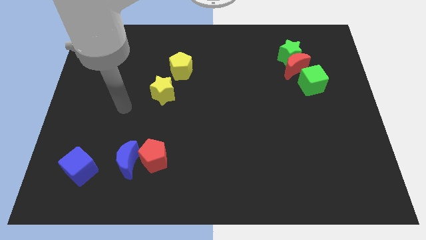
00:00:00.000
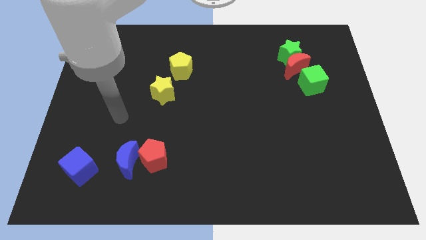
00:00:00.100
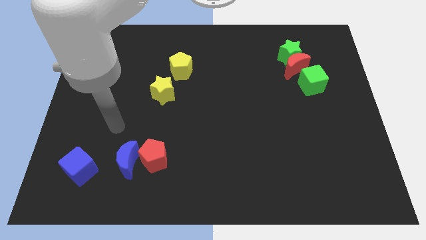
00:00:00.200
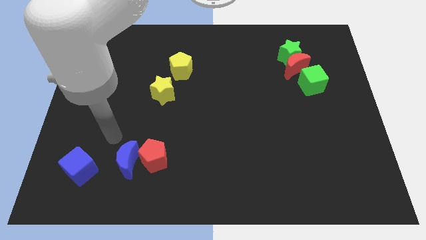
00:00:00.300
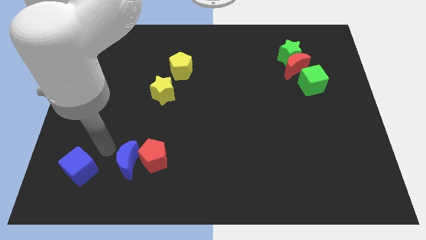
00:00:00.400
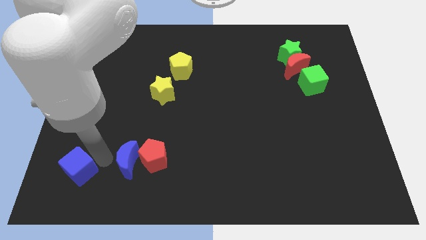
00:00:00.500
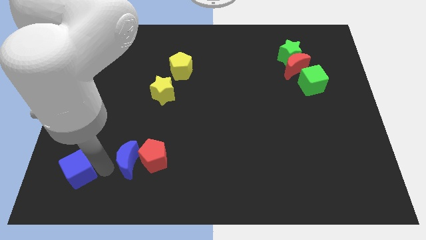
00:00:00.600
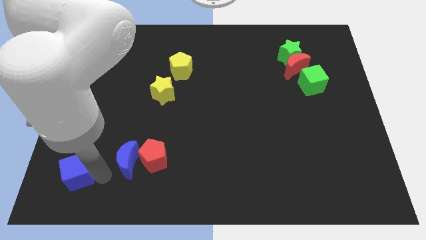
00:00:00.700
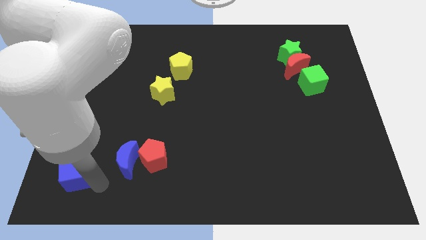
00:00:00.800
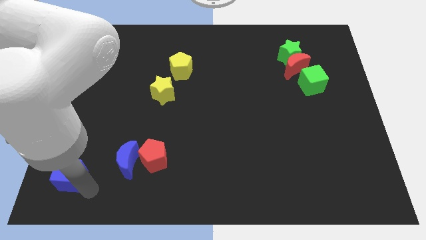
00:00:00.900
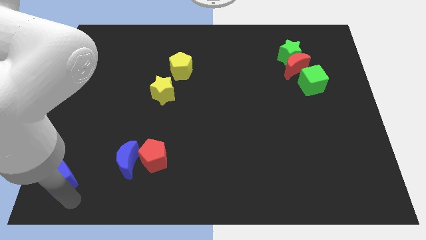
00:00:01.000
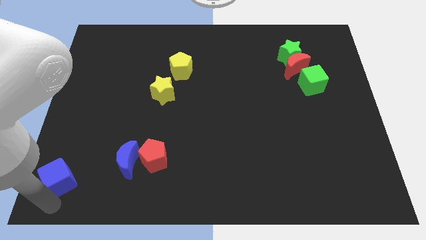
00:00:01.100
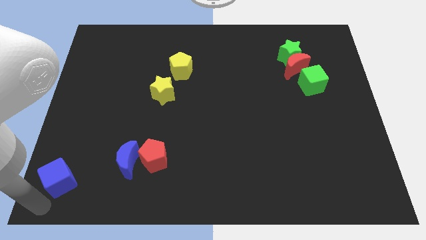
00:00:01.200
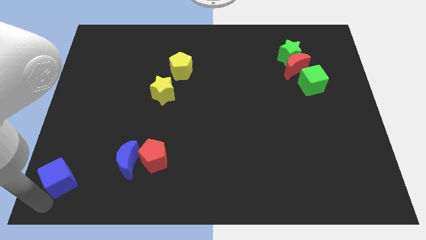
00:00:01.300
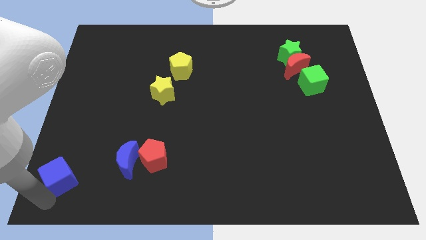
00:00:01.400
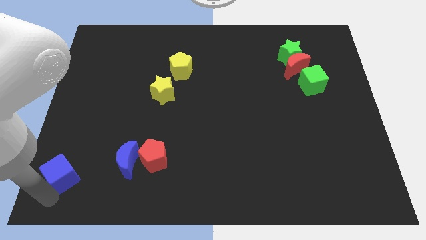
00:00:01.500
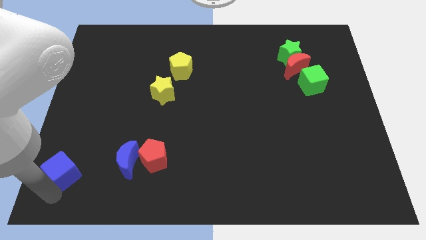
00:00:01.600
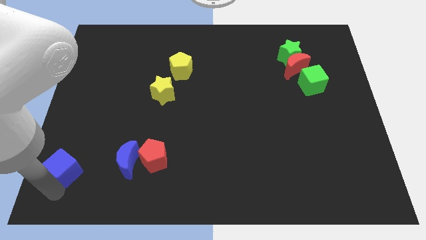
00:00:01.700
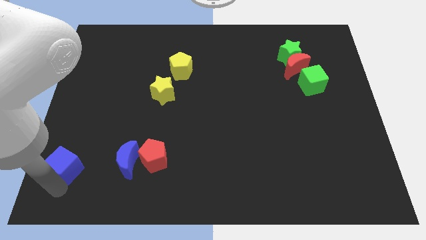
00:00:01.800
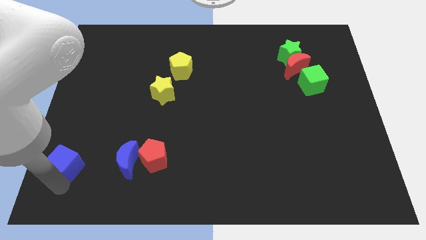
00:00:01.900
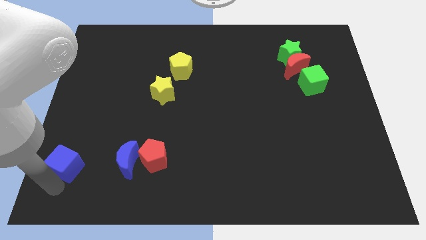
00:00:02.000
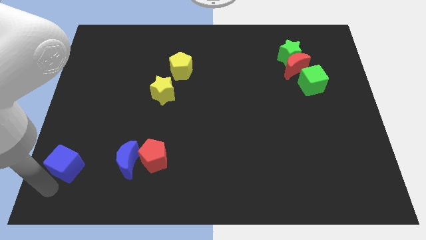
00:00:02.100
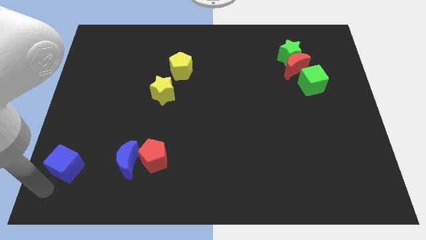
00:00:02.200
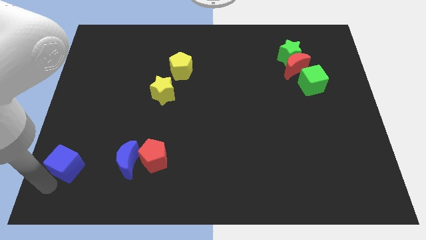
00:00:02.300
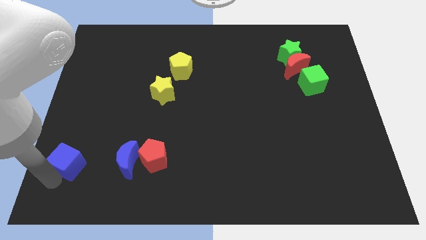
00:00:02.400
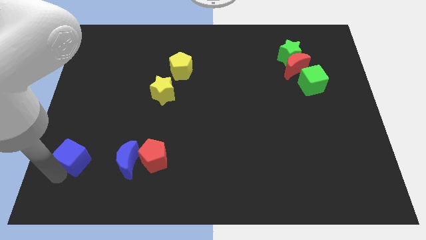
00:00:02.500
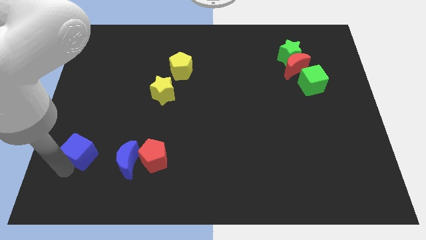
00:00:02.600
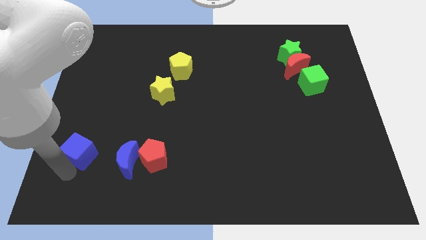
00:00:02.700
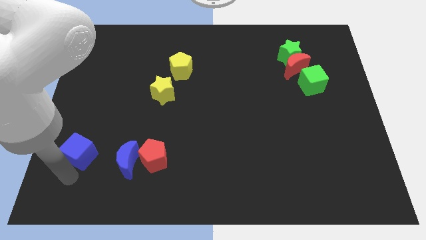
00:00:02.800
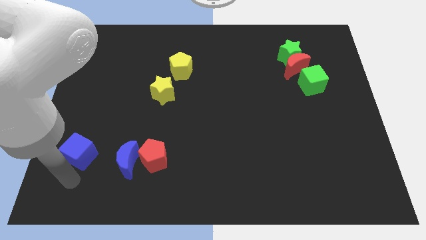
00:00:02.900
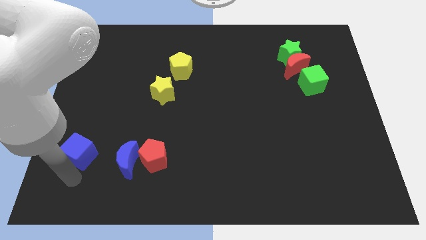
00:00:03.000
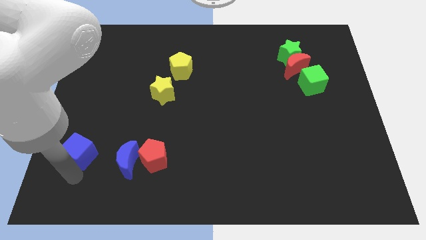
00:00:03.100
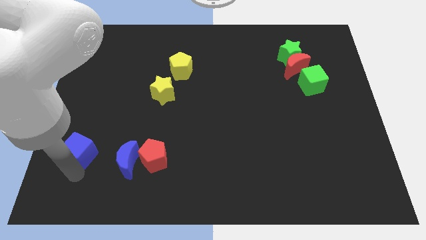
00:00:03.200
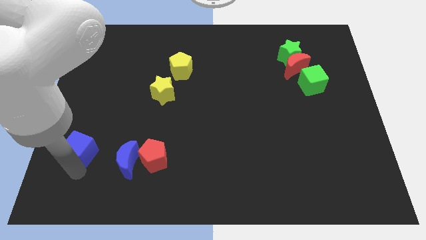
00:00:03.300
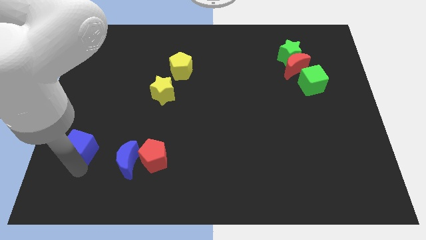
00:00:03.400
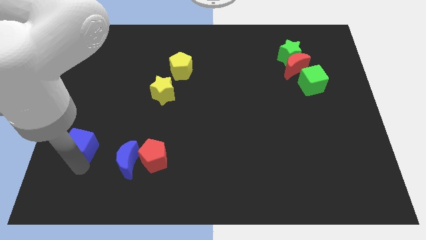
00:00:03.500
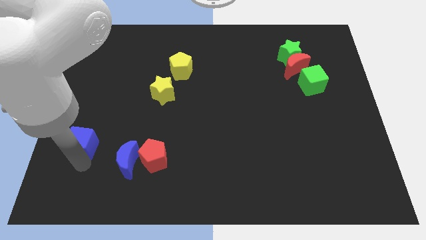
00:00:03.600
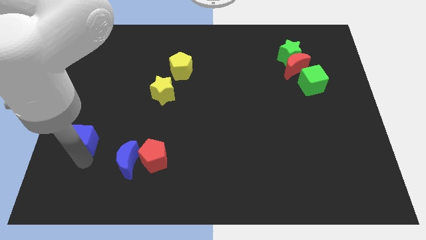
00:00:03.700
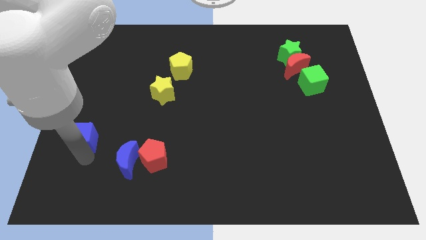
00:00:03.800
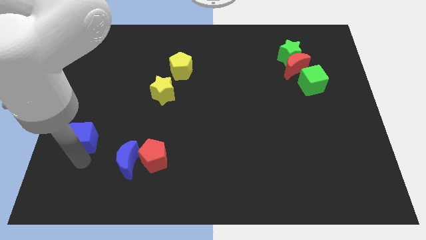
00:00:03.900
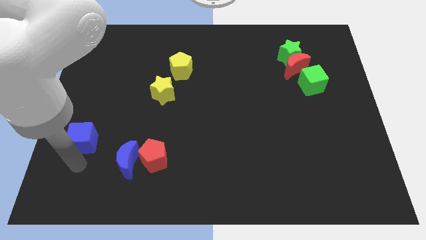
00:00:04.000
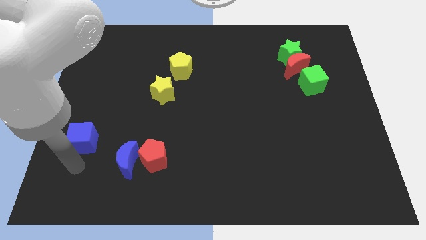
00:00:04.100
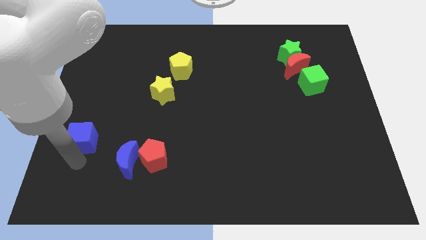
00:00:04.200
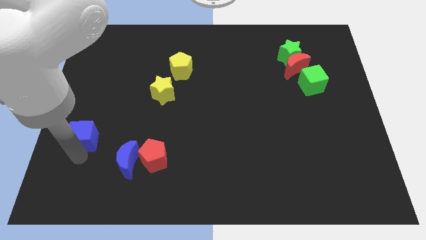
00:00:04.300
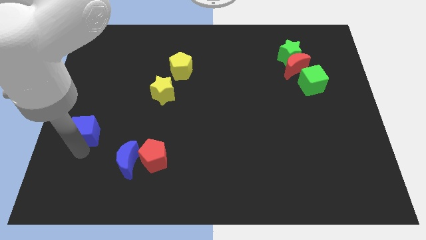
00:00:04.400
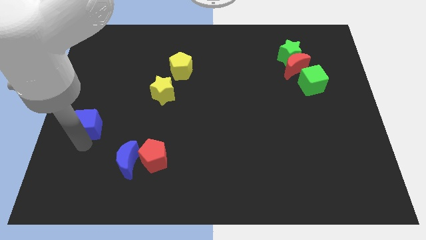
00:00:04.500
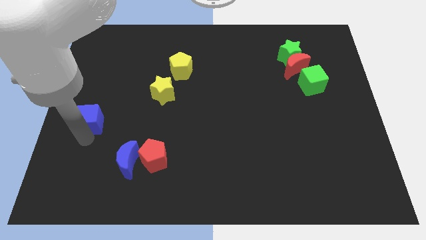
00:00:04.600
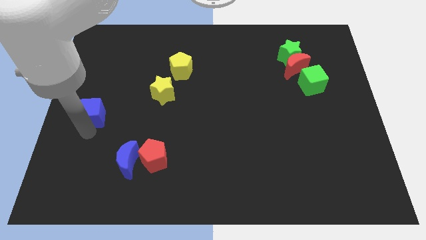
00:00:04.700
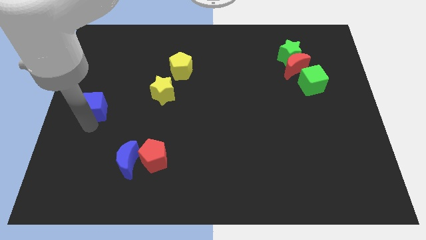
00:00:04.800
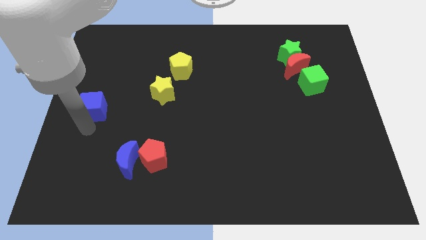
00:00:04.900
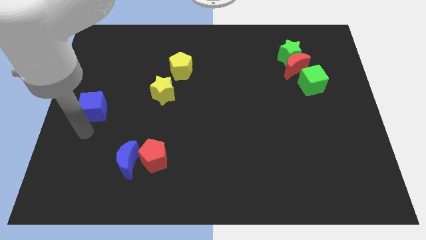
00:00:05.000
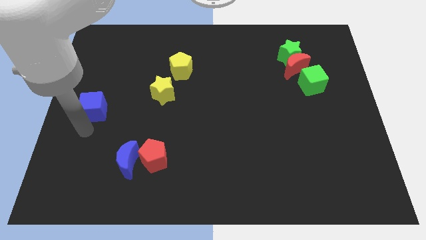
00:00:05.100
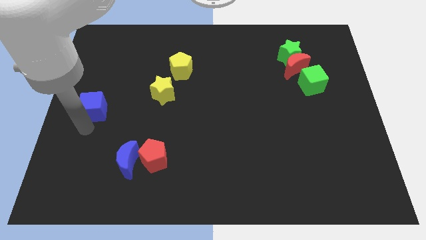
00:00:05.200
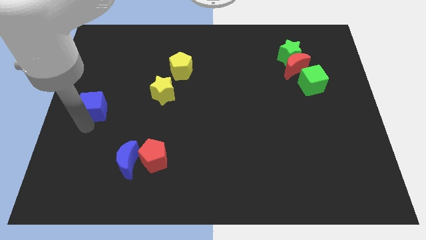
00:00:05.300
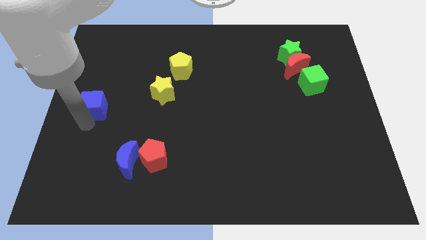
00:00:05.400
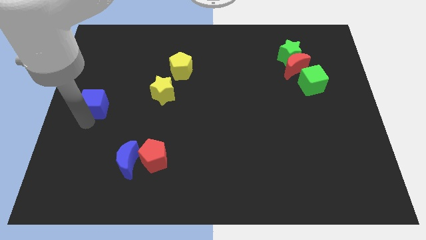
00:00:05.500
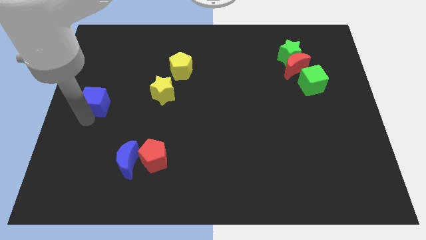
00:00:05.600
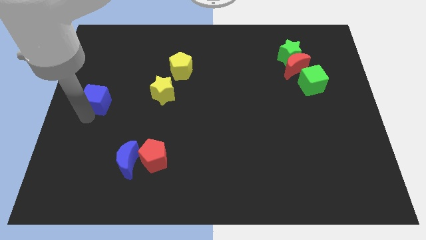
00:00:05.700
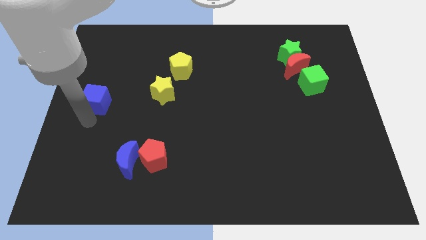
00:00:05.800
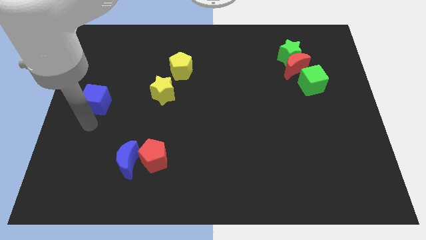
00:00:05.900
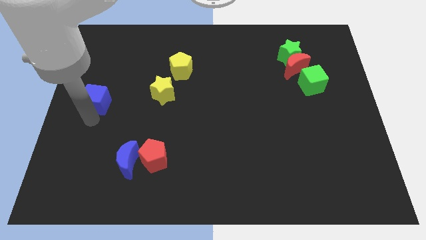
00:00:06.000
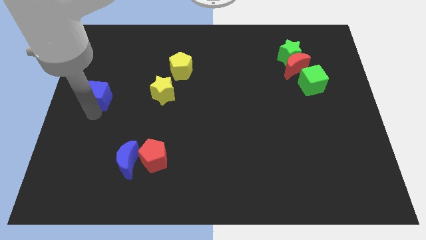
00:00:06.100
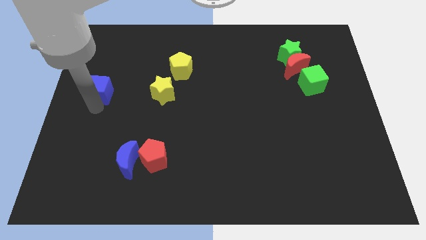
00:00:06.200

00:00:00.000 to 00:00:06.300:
move the blue cube up

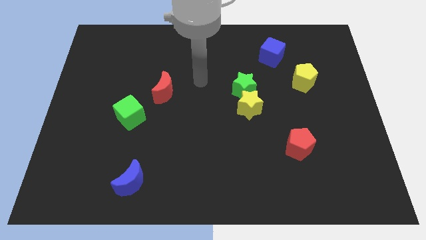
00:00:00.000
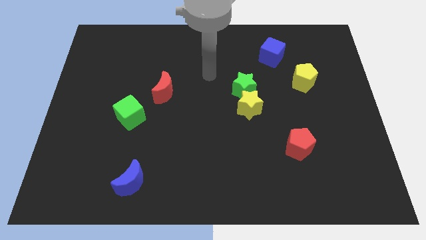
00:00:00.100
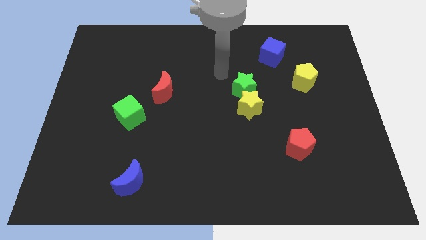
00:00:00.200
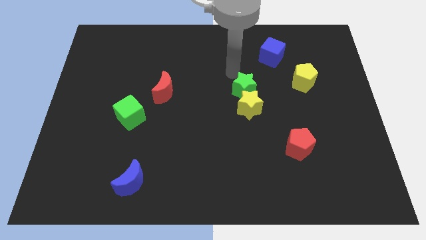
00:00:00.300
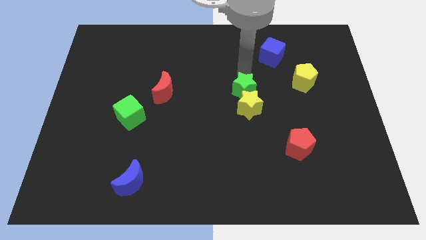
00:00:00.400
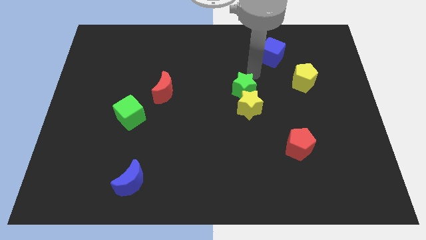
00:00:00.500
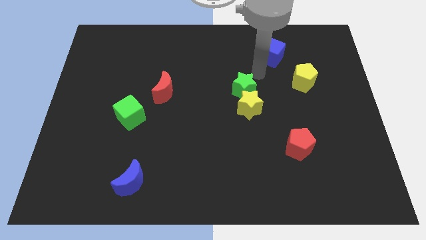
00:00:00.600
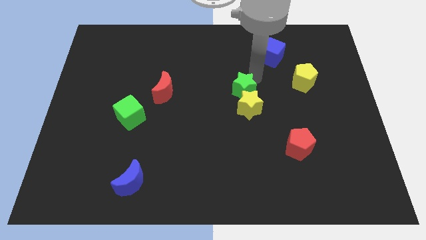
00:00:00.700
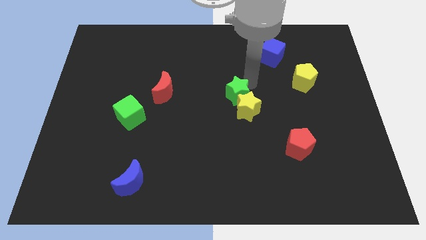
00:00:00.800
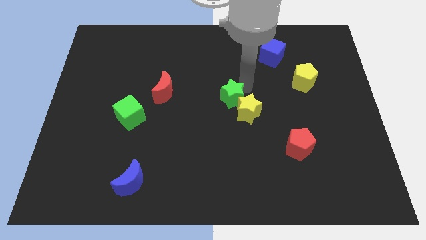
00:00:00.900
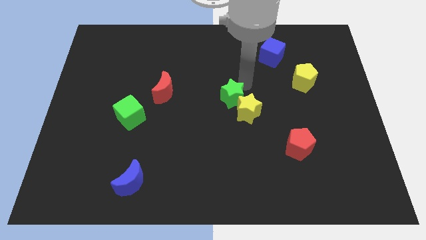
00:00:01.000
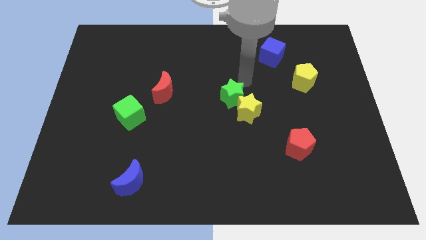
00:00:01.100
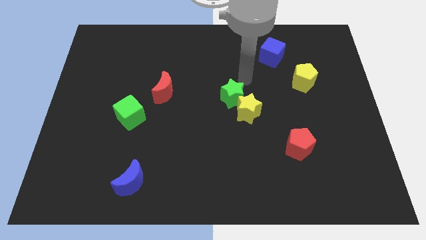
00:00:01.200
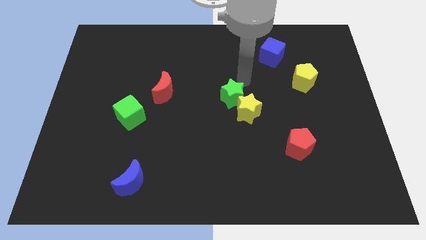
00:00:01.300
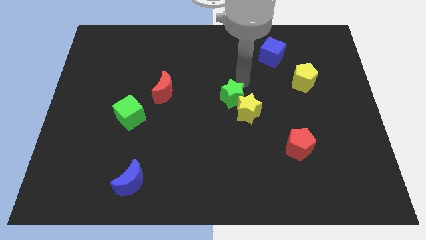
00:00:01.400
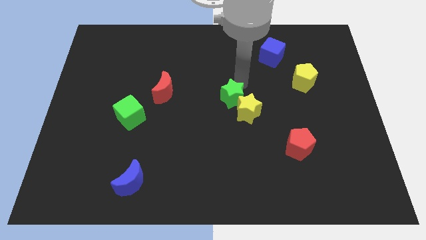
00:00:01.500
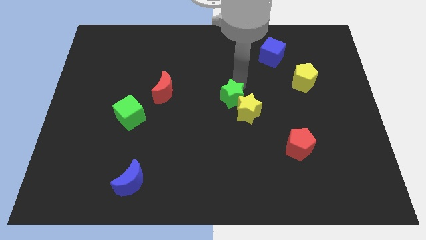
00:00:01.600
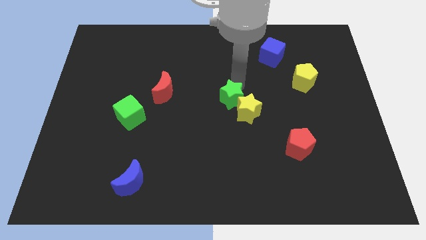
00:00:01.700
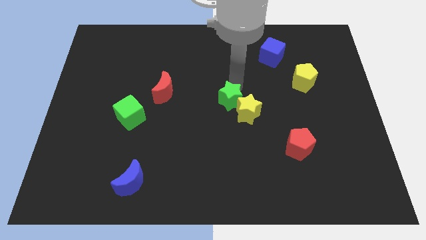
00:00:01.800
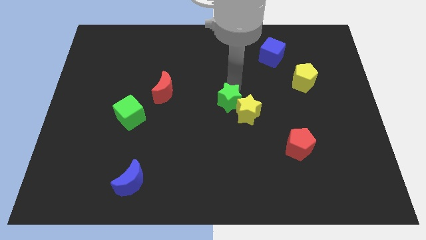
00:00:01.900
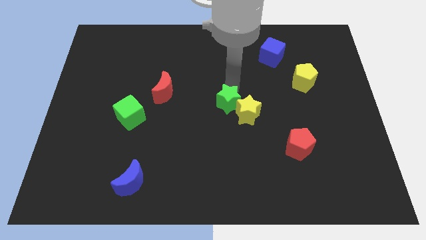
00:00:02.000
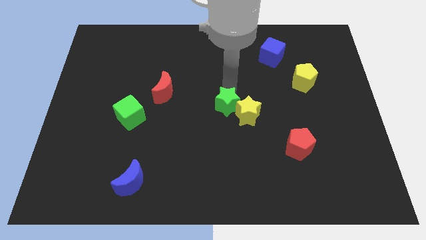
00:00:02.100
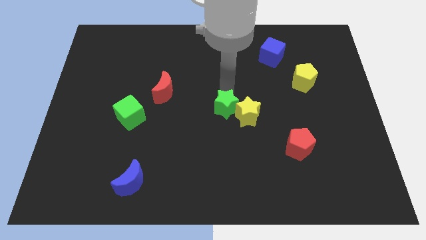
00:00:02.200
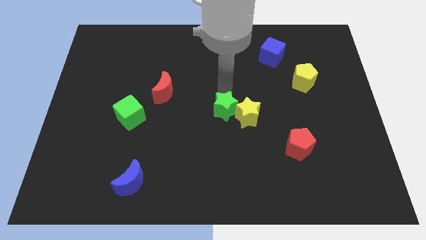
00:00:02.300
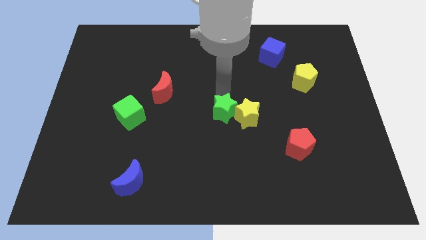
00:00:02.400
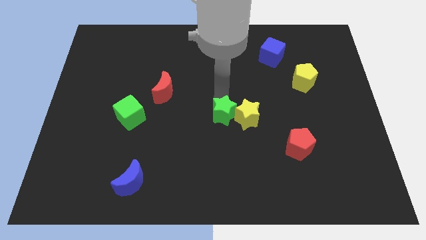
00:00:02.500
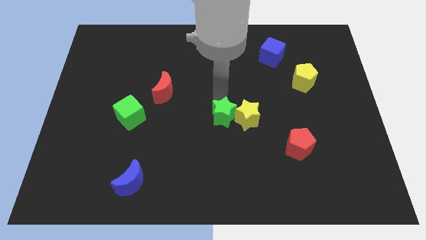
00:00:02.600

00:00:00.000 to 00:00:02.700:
push the green star down a little
